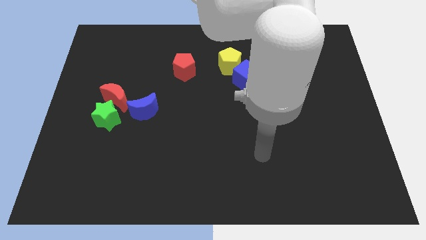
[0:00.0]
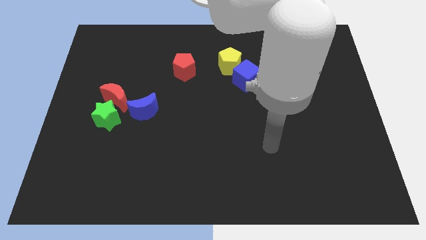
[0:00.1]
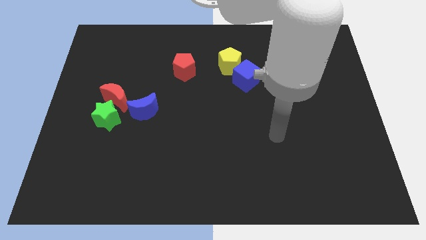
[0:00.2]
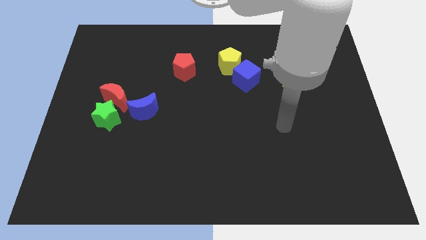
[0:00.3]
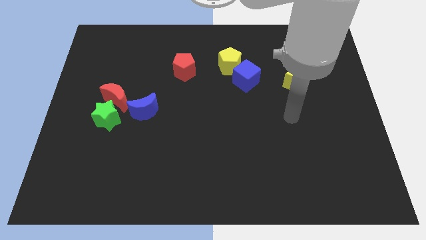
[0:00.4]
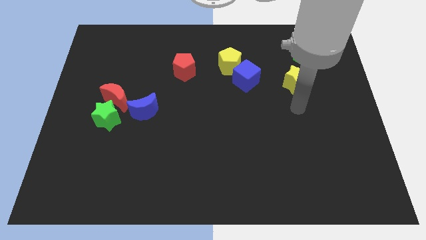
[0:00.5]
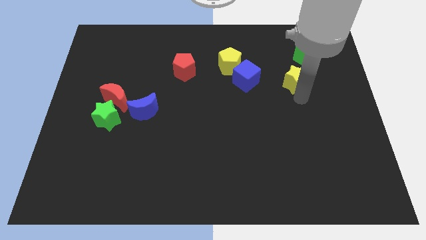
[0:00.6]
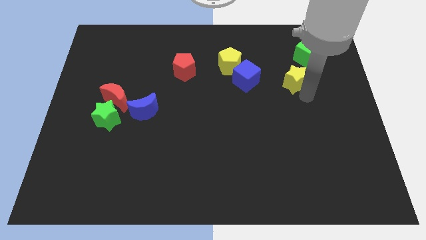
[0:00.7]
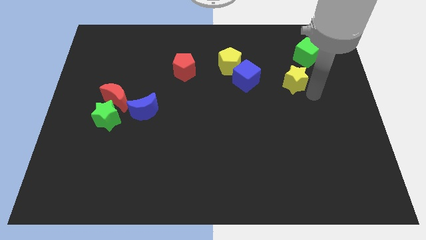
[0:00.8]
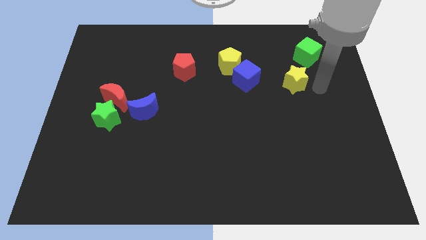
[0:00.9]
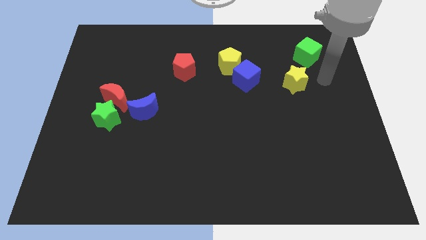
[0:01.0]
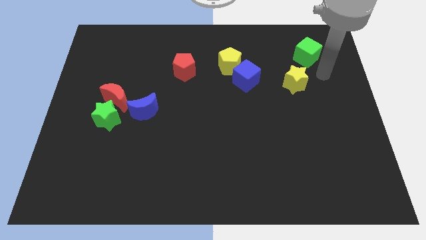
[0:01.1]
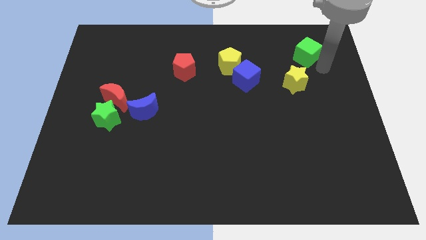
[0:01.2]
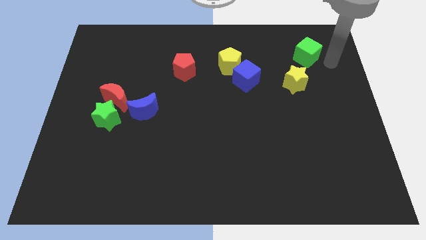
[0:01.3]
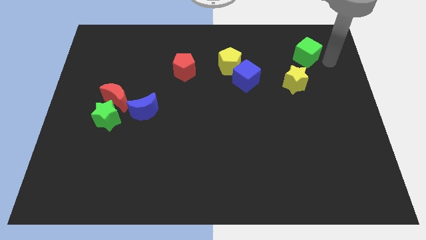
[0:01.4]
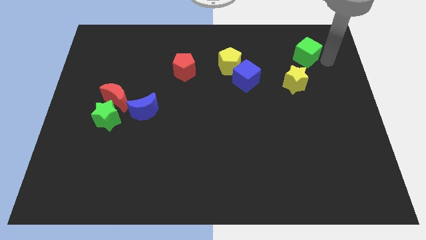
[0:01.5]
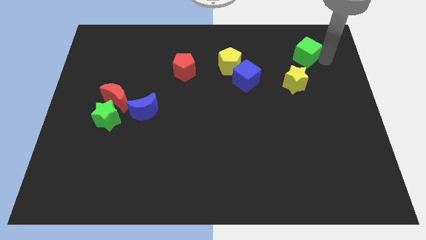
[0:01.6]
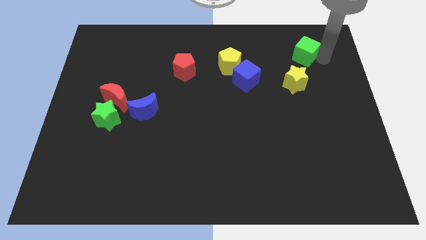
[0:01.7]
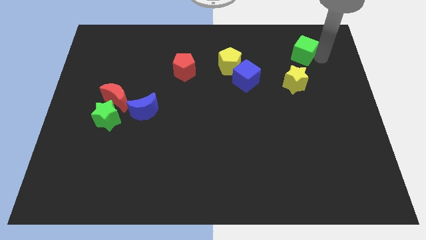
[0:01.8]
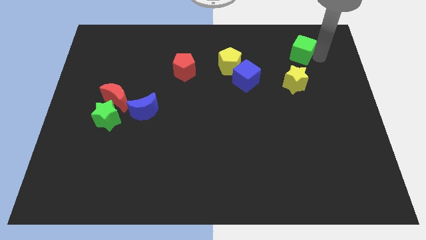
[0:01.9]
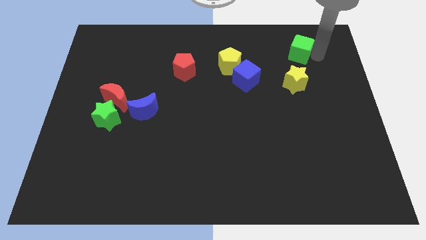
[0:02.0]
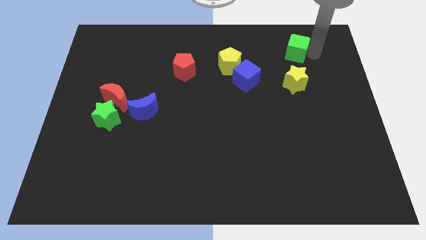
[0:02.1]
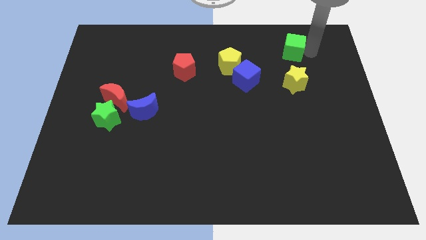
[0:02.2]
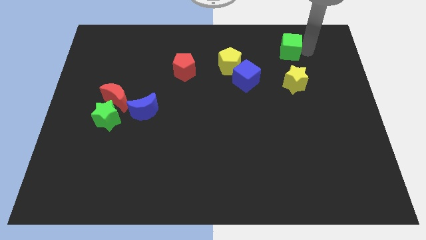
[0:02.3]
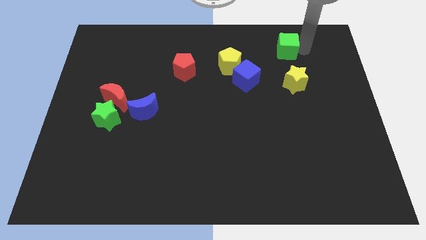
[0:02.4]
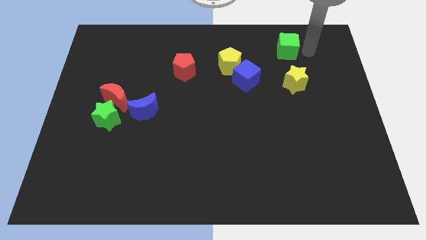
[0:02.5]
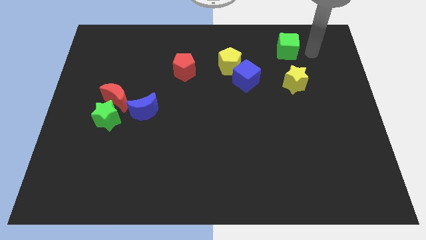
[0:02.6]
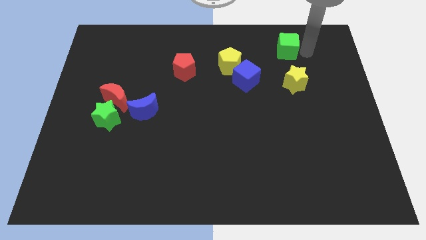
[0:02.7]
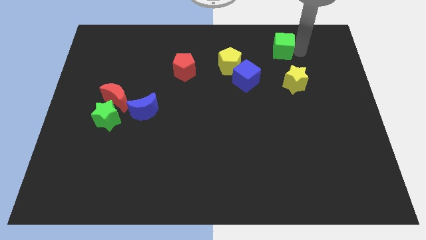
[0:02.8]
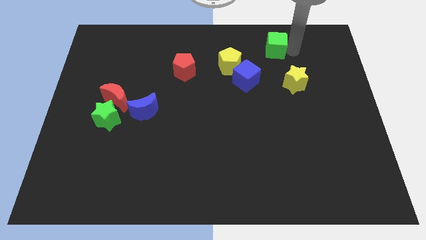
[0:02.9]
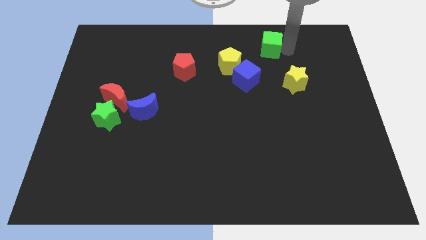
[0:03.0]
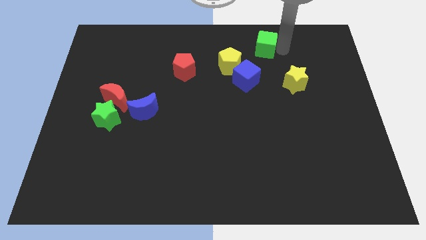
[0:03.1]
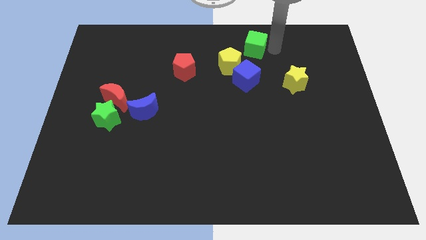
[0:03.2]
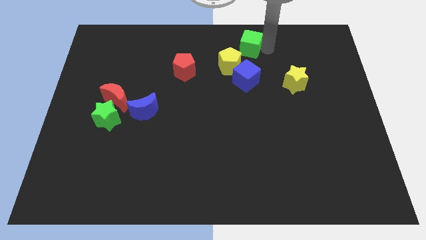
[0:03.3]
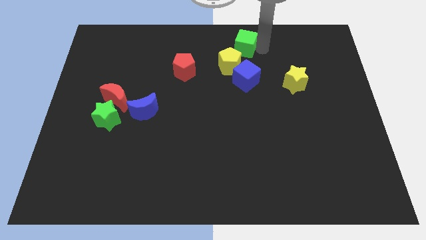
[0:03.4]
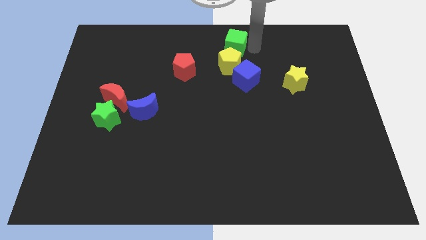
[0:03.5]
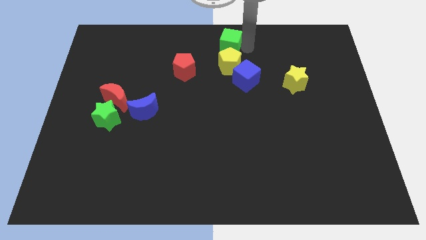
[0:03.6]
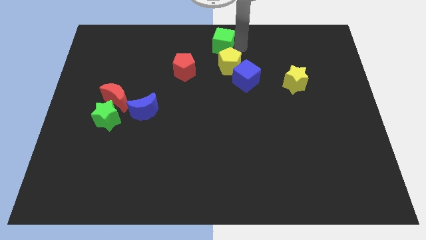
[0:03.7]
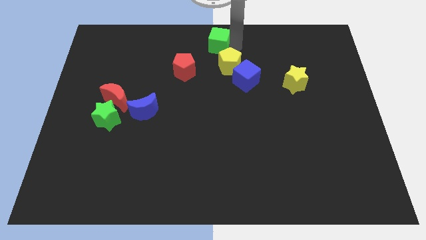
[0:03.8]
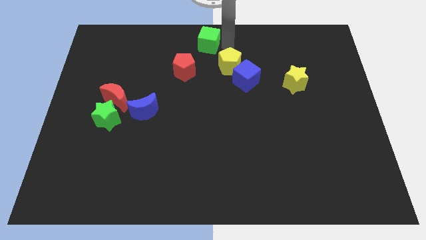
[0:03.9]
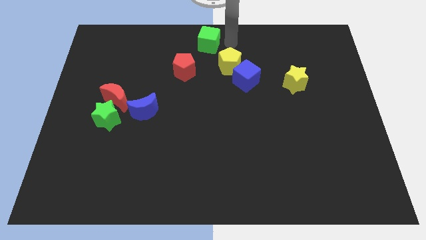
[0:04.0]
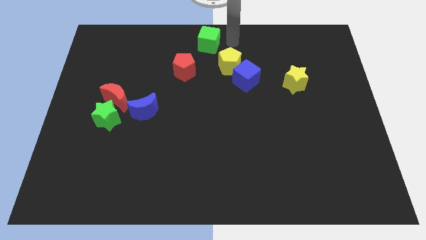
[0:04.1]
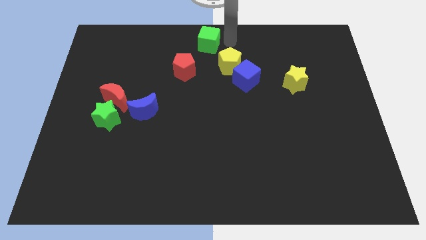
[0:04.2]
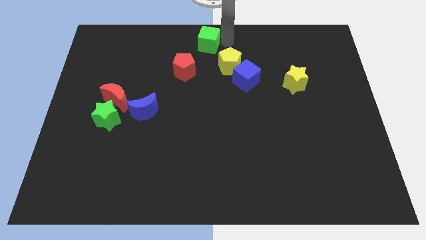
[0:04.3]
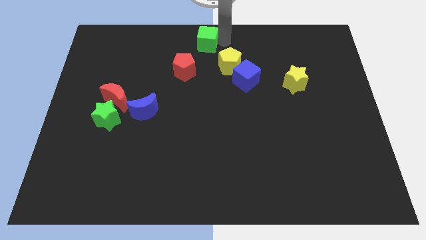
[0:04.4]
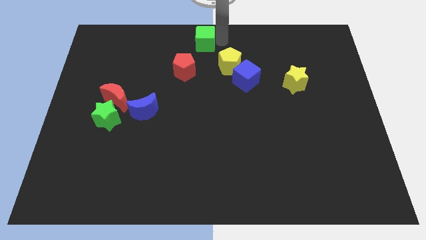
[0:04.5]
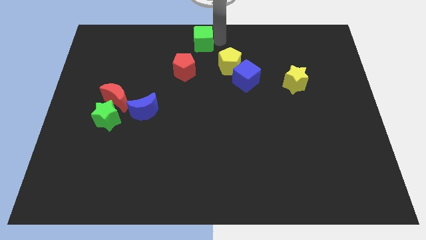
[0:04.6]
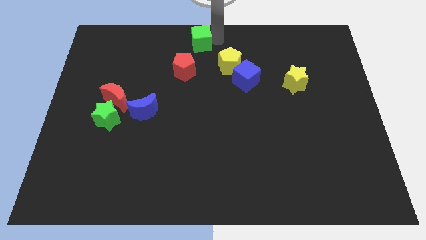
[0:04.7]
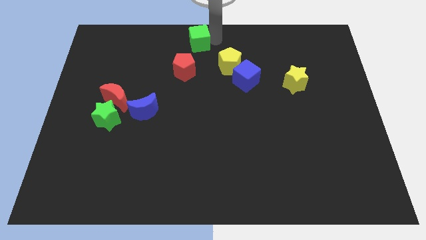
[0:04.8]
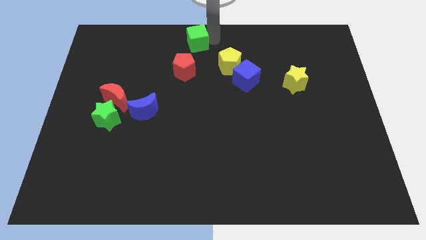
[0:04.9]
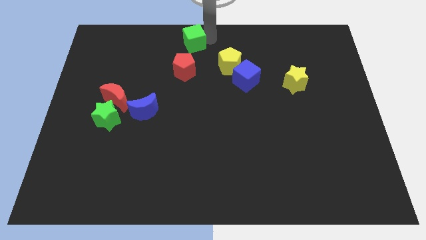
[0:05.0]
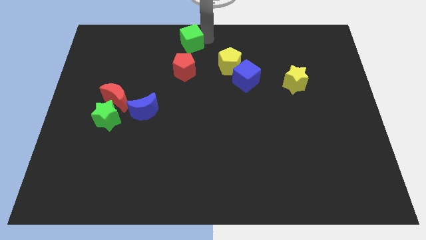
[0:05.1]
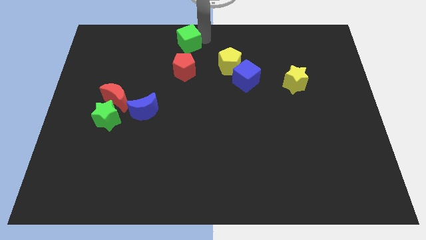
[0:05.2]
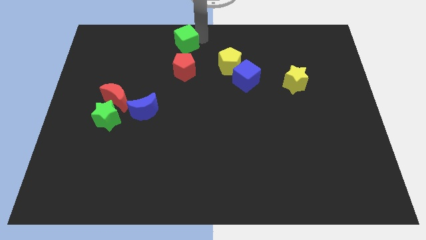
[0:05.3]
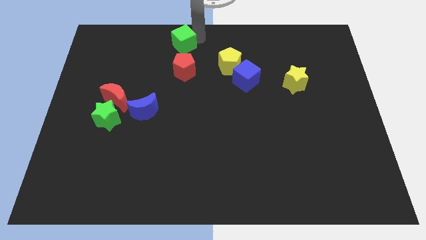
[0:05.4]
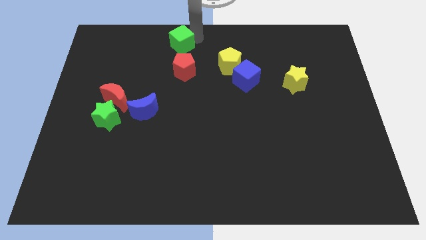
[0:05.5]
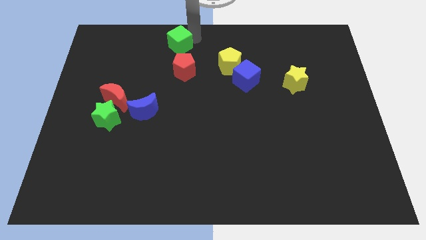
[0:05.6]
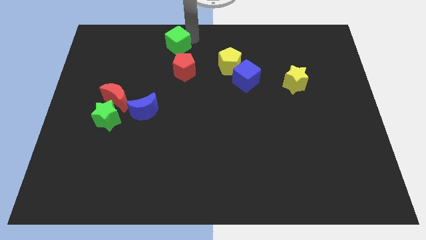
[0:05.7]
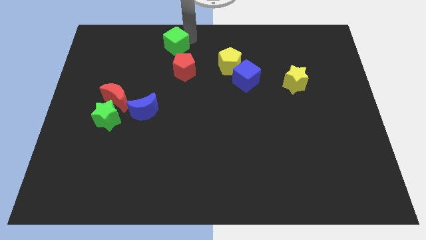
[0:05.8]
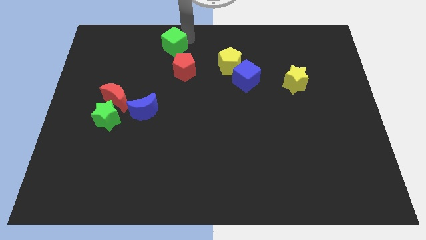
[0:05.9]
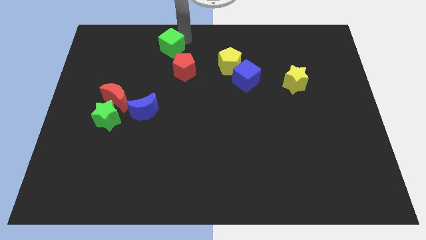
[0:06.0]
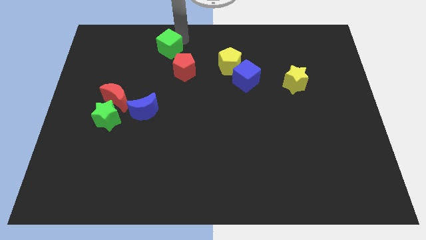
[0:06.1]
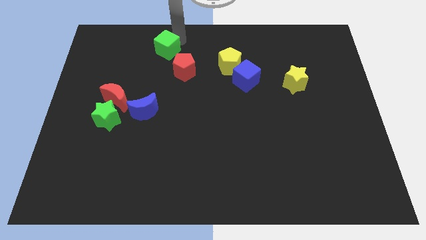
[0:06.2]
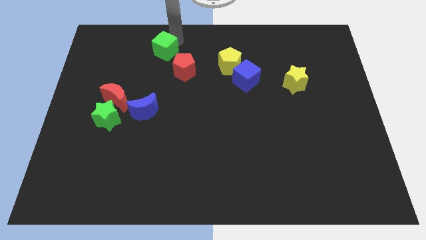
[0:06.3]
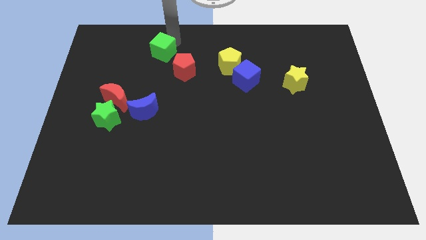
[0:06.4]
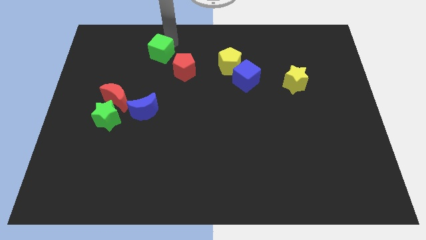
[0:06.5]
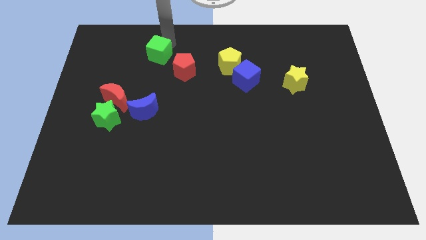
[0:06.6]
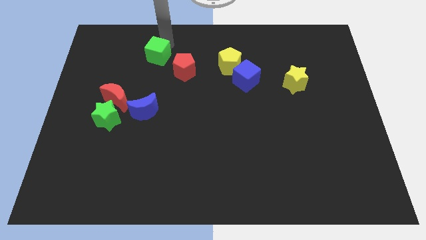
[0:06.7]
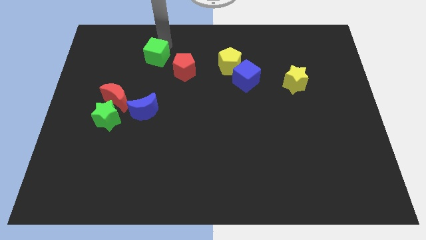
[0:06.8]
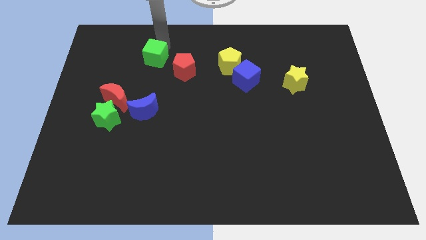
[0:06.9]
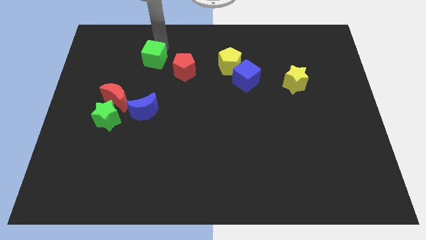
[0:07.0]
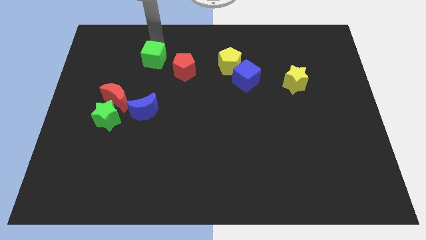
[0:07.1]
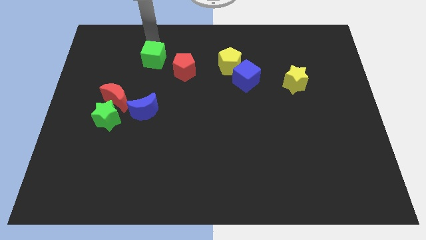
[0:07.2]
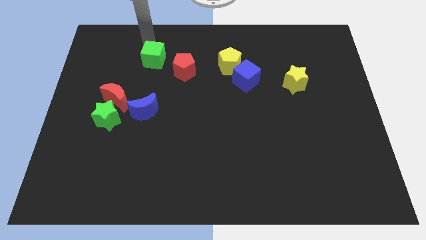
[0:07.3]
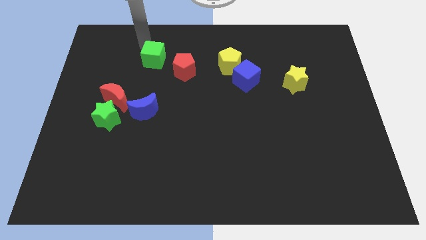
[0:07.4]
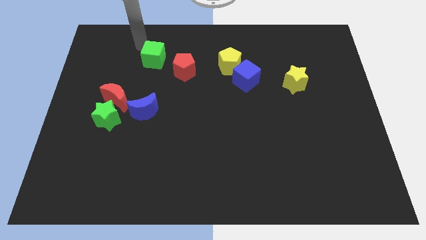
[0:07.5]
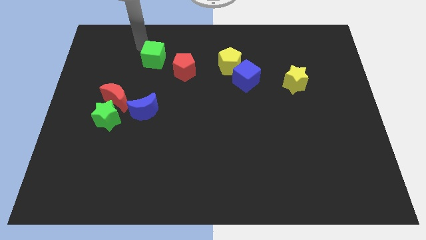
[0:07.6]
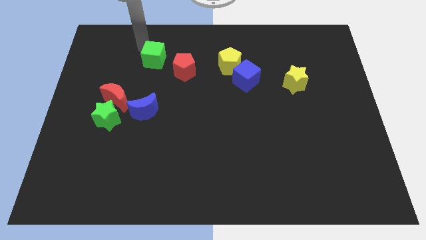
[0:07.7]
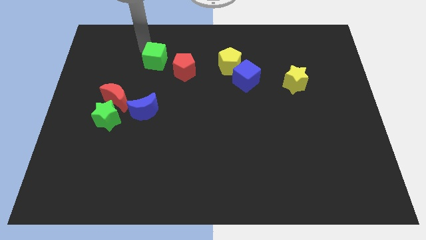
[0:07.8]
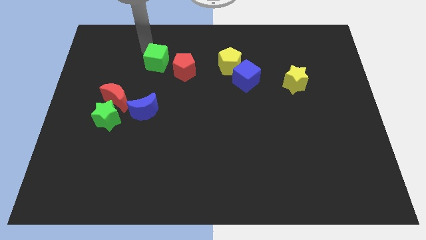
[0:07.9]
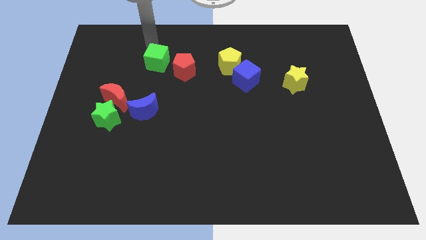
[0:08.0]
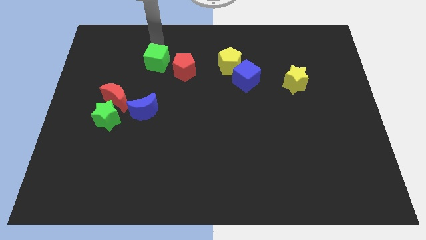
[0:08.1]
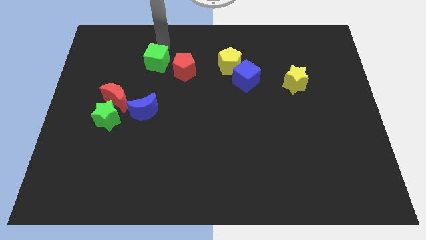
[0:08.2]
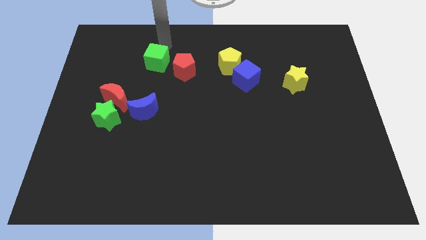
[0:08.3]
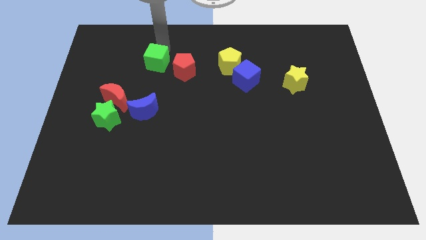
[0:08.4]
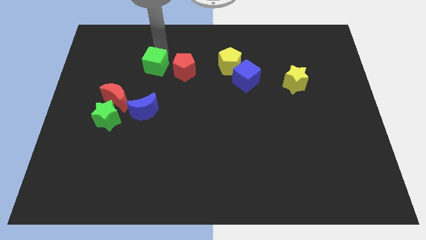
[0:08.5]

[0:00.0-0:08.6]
move the green cube to the top side of the blue moon
